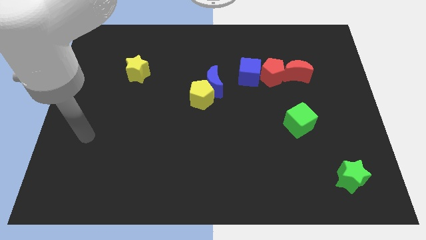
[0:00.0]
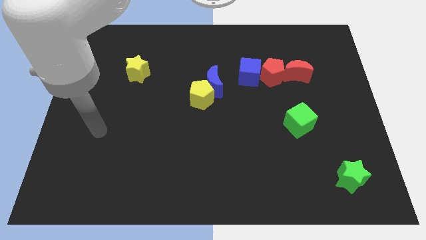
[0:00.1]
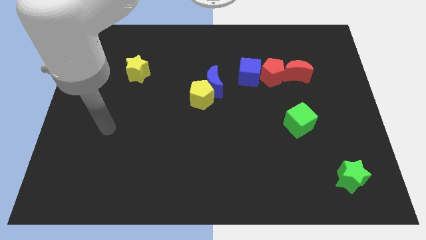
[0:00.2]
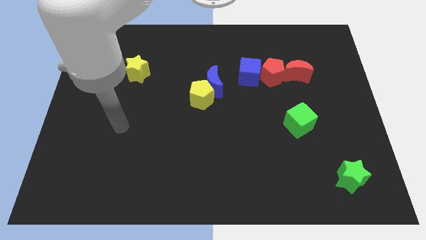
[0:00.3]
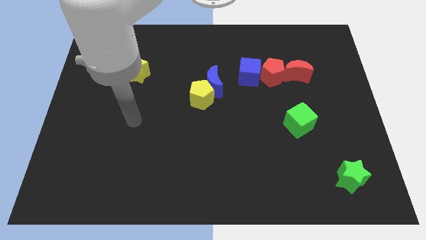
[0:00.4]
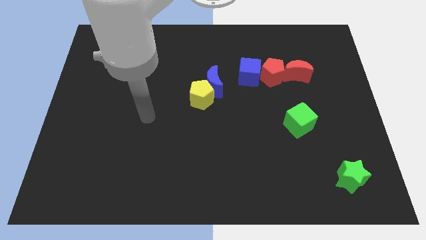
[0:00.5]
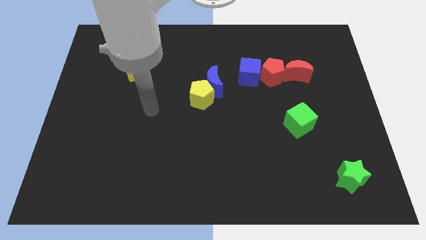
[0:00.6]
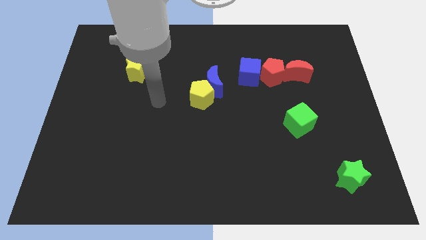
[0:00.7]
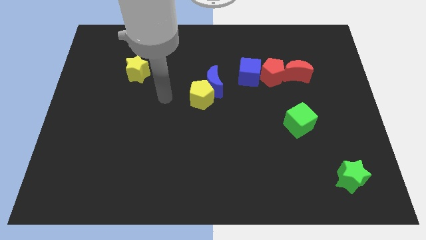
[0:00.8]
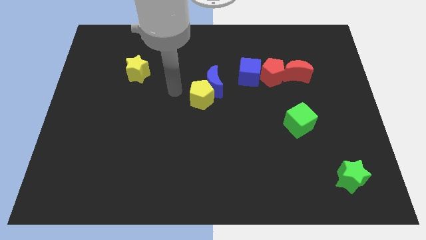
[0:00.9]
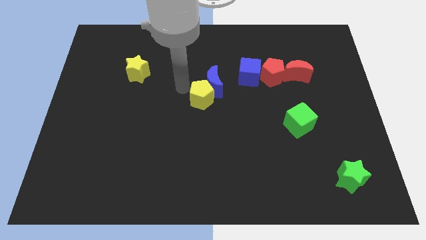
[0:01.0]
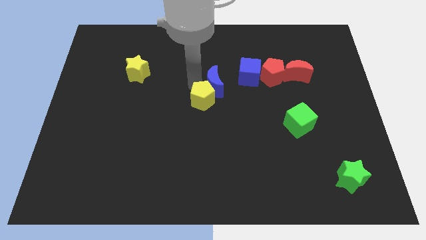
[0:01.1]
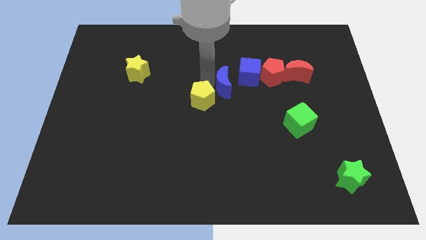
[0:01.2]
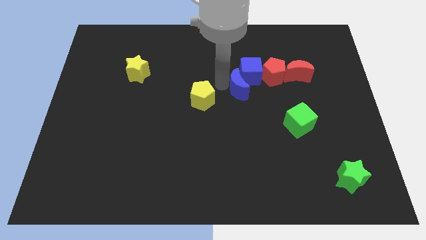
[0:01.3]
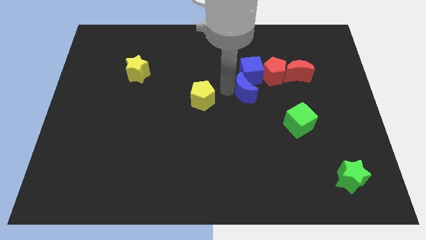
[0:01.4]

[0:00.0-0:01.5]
separate the yellow pentagon from the blue moon

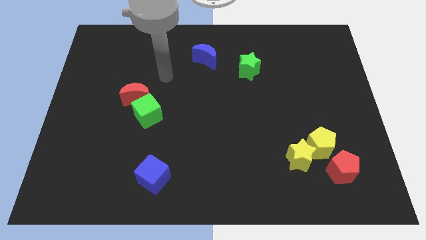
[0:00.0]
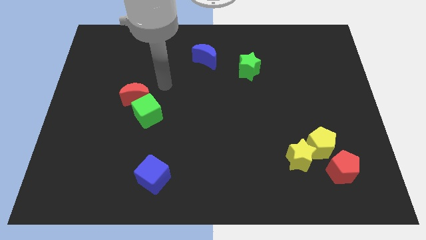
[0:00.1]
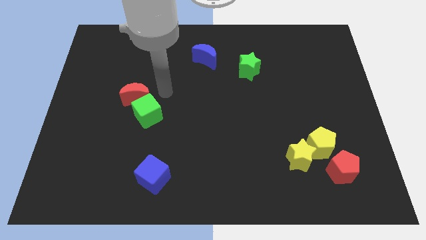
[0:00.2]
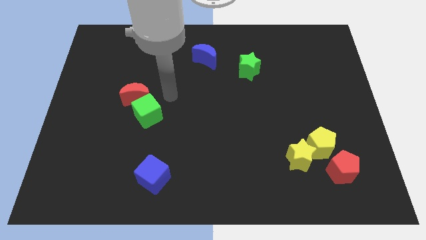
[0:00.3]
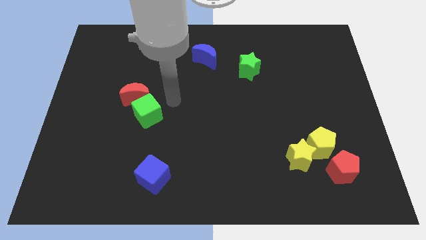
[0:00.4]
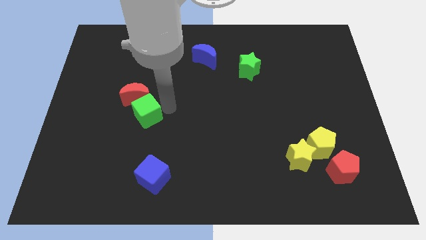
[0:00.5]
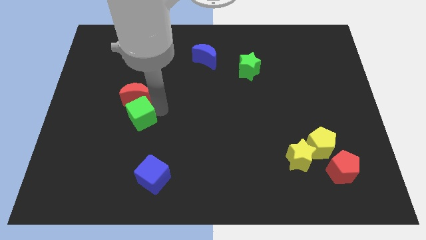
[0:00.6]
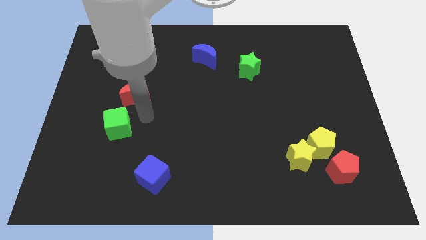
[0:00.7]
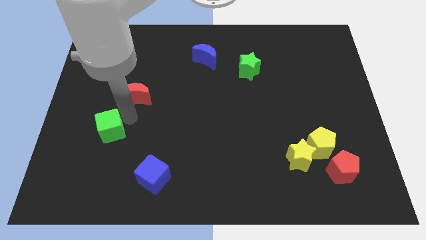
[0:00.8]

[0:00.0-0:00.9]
pull the red moon apart from the green cube

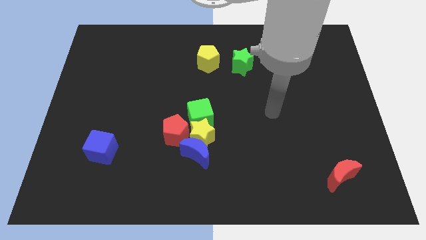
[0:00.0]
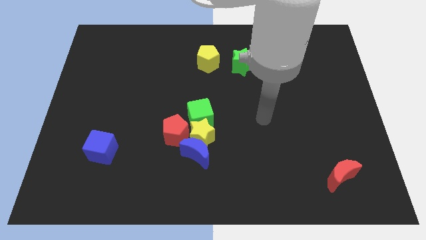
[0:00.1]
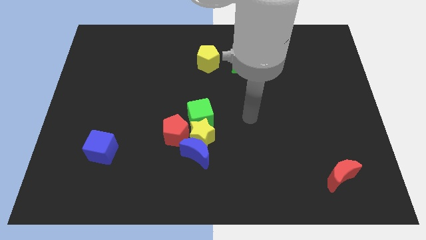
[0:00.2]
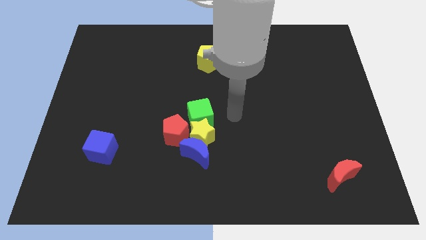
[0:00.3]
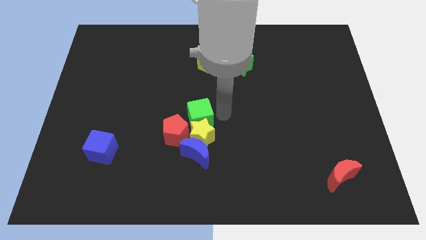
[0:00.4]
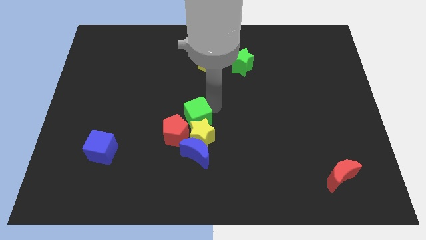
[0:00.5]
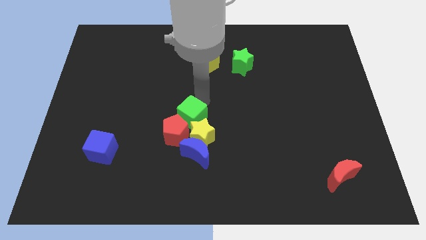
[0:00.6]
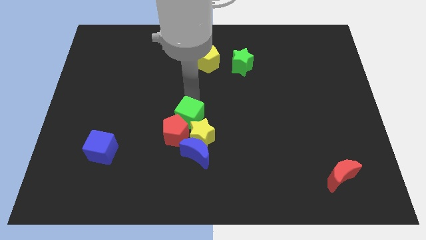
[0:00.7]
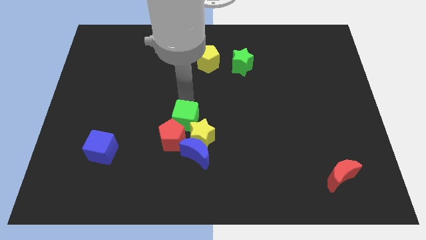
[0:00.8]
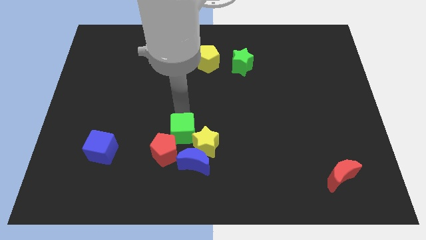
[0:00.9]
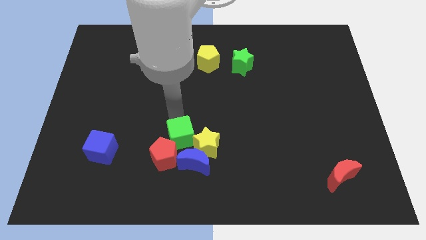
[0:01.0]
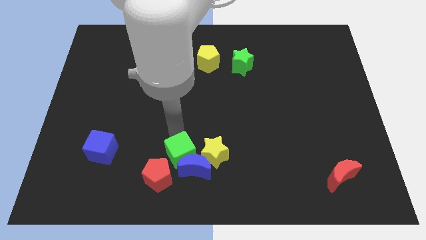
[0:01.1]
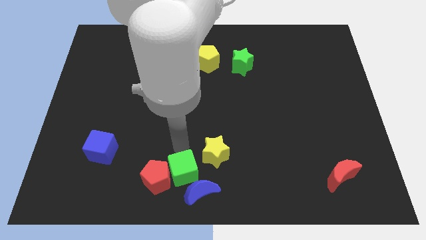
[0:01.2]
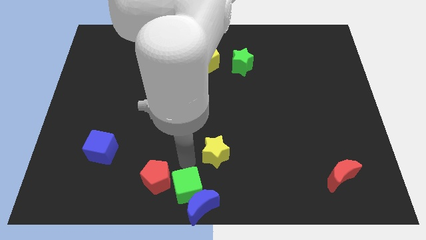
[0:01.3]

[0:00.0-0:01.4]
separate the yellow star from the group of blocks

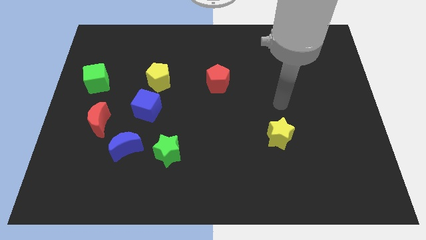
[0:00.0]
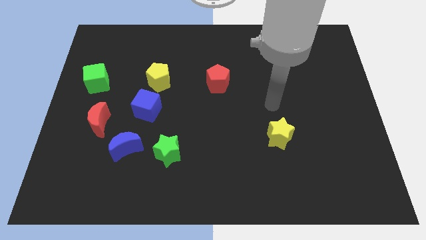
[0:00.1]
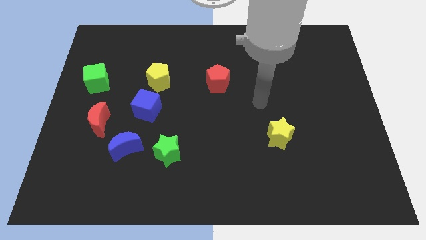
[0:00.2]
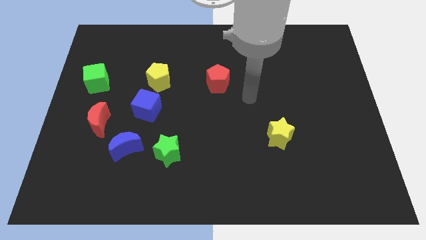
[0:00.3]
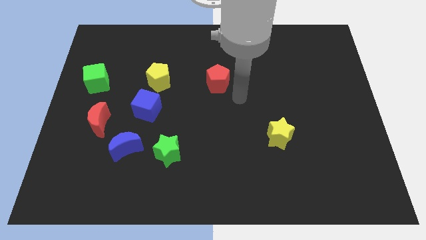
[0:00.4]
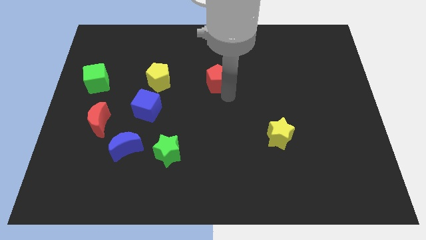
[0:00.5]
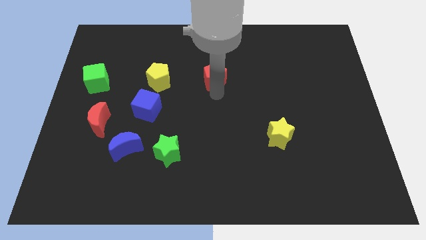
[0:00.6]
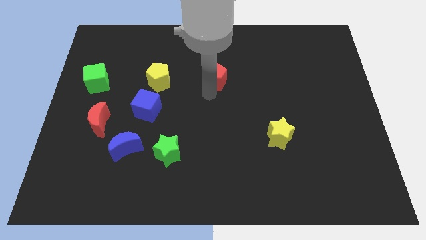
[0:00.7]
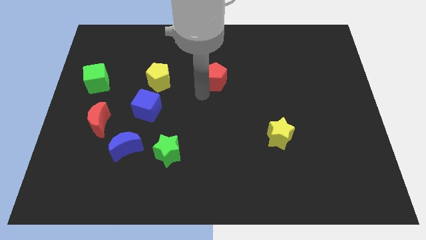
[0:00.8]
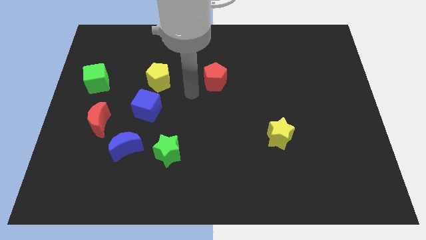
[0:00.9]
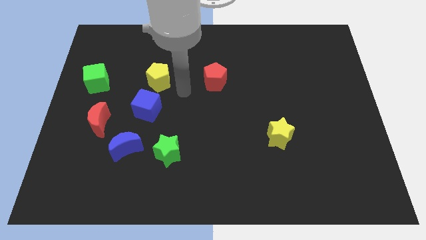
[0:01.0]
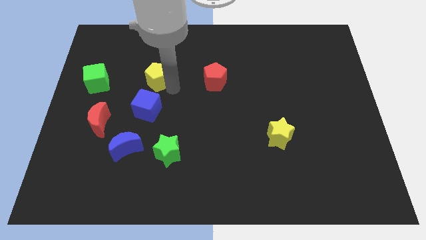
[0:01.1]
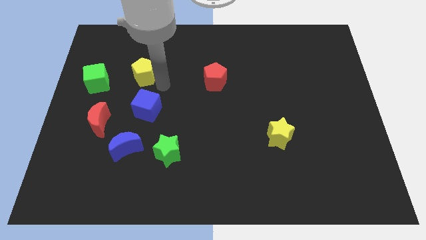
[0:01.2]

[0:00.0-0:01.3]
pull the blue cube apart from the yellow pentagon

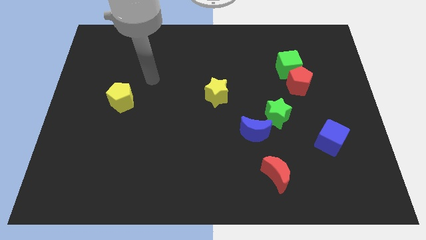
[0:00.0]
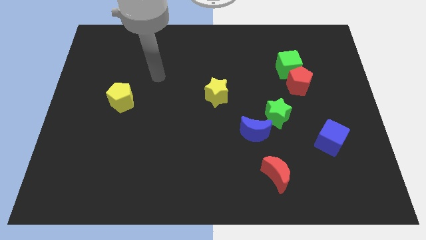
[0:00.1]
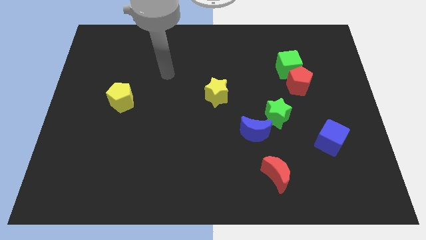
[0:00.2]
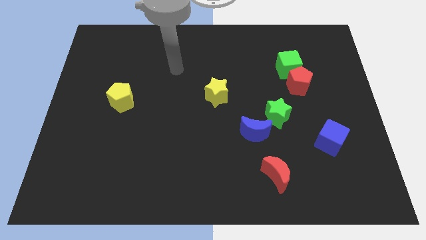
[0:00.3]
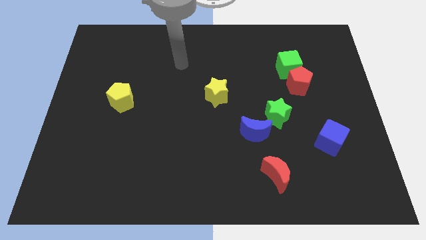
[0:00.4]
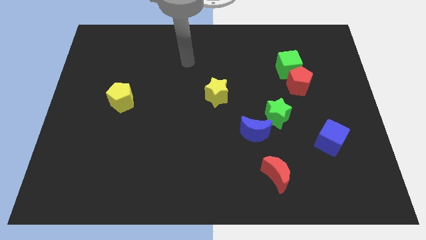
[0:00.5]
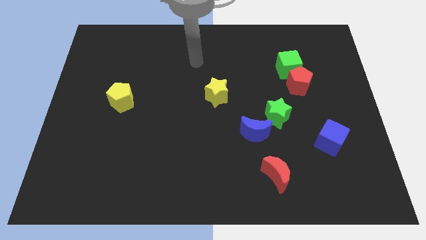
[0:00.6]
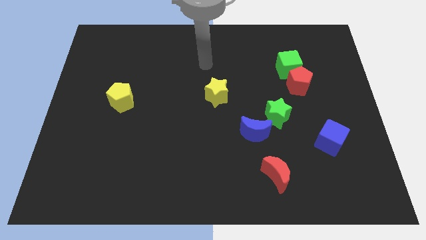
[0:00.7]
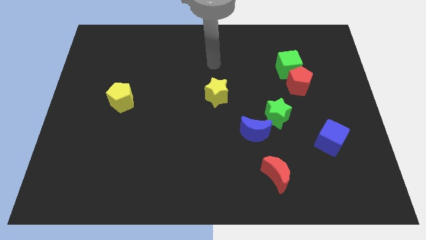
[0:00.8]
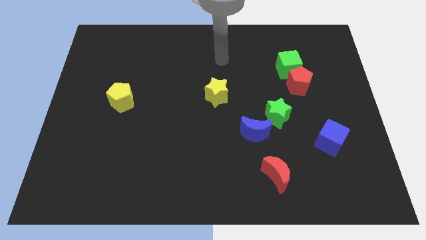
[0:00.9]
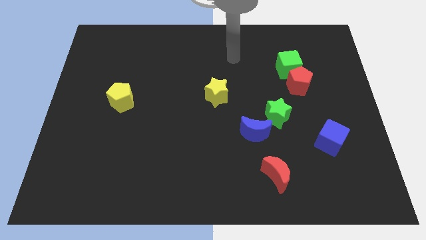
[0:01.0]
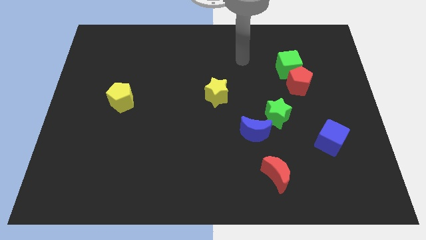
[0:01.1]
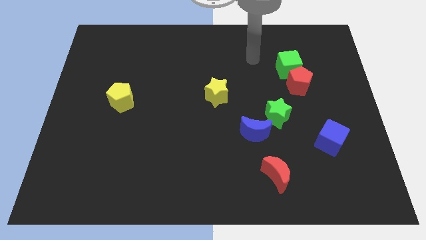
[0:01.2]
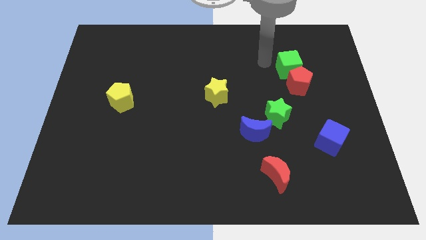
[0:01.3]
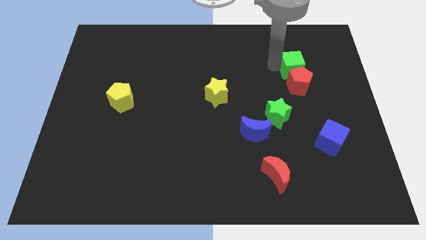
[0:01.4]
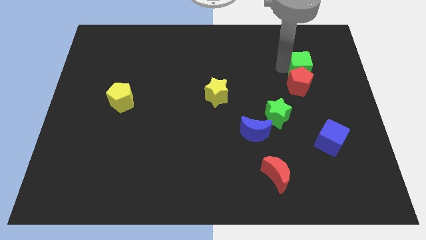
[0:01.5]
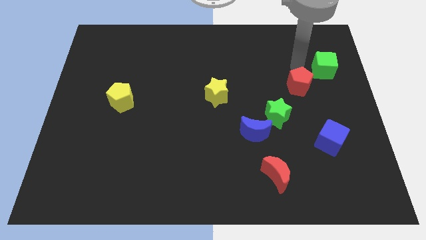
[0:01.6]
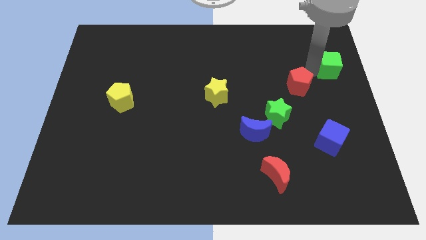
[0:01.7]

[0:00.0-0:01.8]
pull the red pentagon apart from the green cube

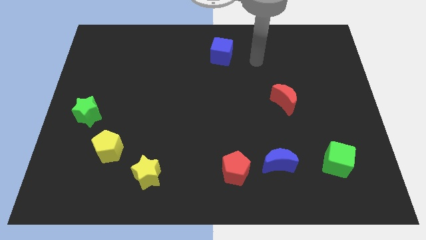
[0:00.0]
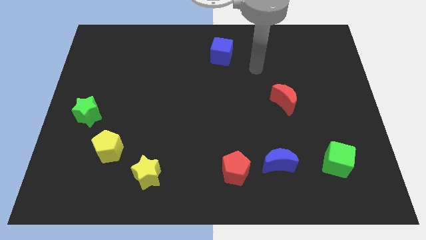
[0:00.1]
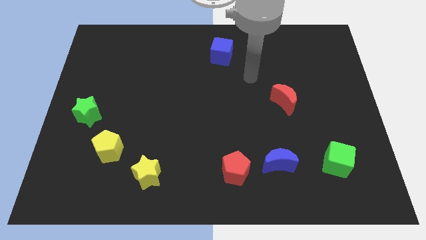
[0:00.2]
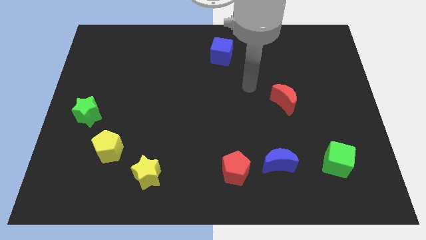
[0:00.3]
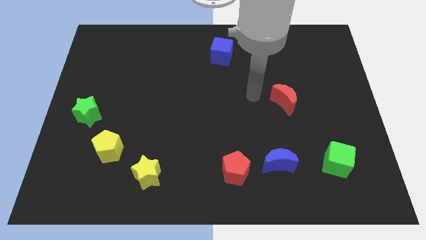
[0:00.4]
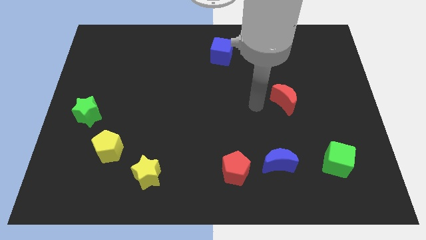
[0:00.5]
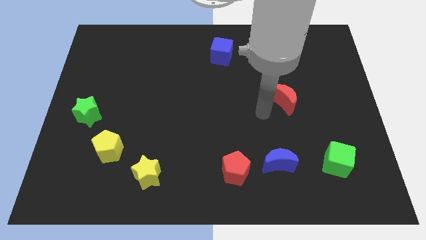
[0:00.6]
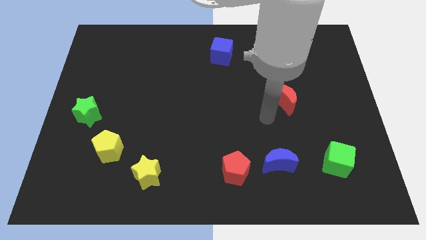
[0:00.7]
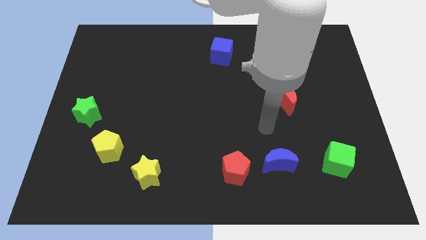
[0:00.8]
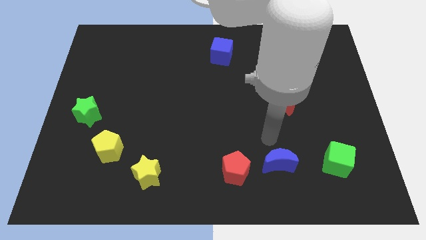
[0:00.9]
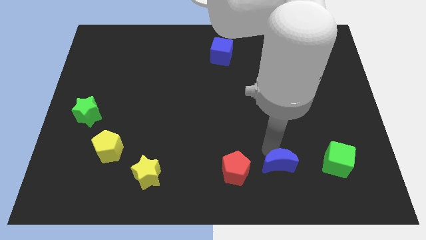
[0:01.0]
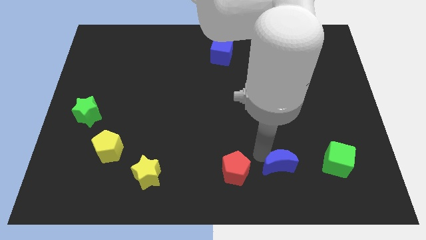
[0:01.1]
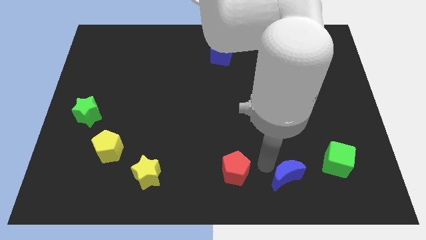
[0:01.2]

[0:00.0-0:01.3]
move the red pentagon away from the blue moon

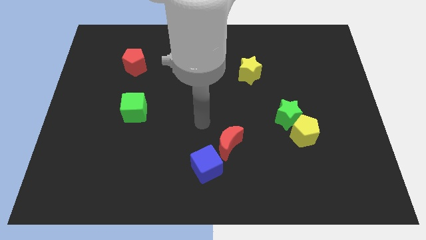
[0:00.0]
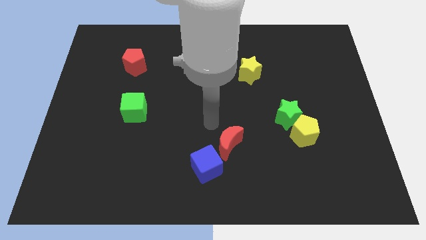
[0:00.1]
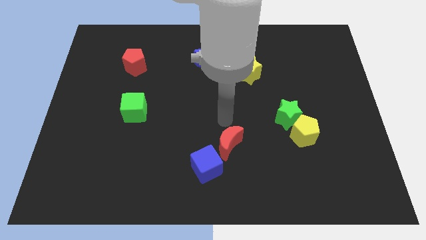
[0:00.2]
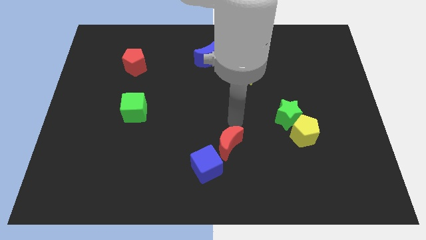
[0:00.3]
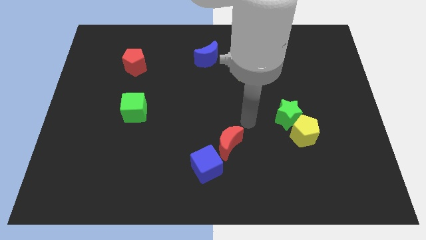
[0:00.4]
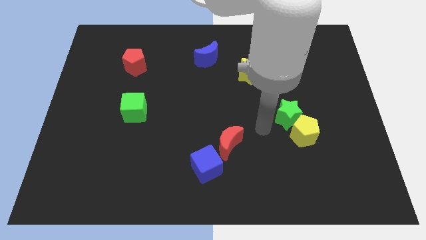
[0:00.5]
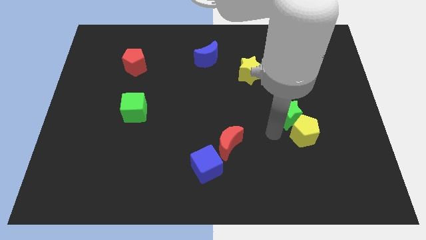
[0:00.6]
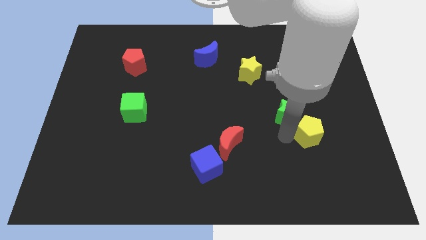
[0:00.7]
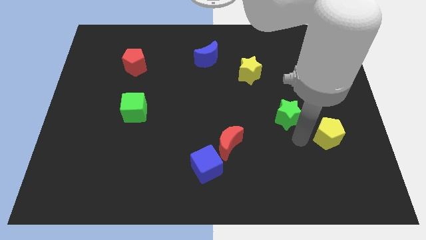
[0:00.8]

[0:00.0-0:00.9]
move the green star away from the yellow pentagon

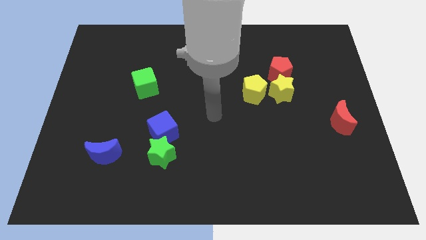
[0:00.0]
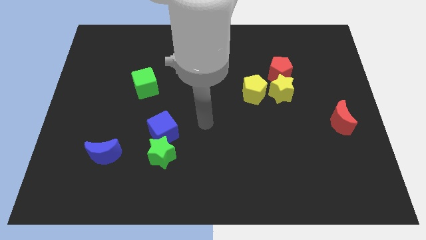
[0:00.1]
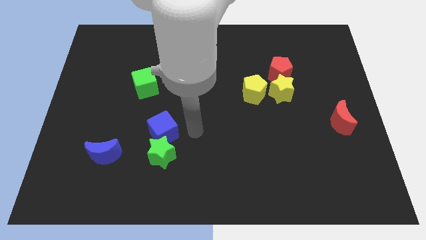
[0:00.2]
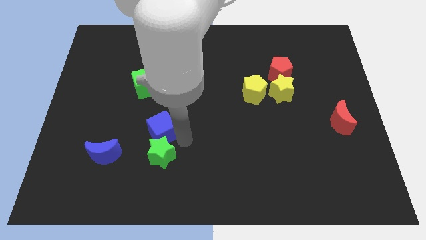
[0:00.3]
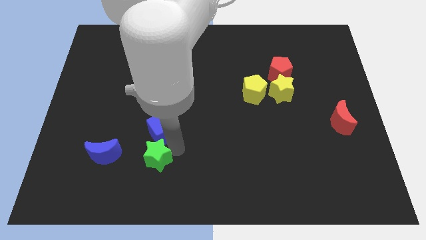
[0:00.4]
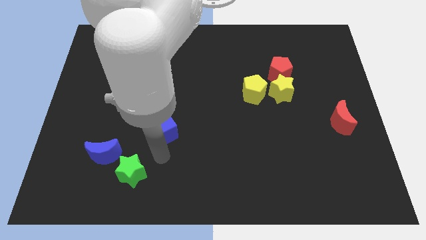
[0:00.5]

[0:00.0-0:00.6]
pull the blue cube apart from the green star
